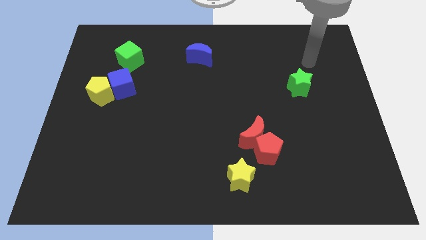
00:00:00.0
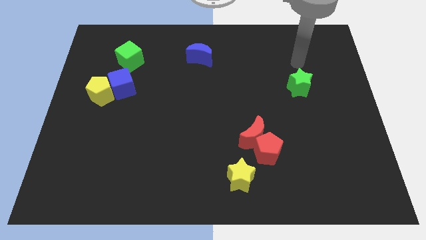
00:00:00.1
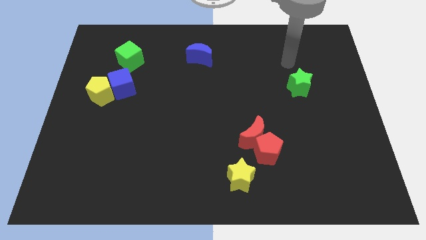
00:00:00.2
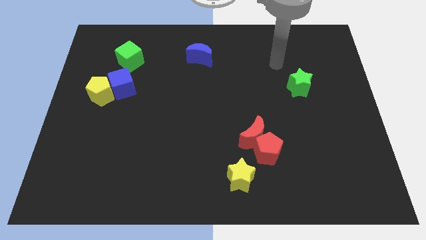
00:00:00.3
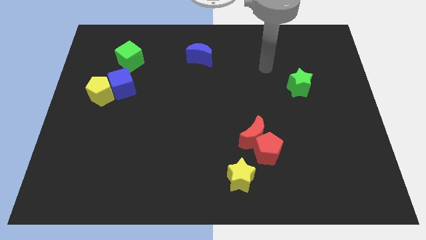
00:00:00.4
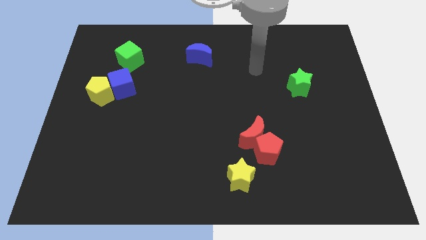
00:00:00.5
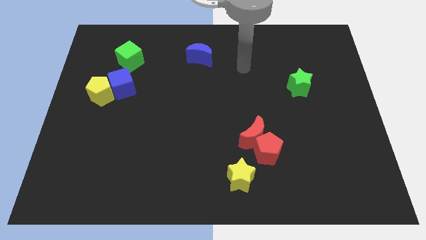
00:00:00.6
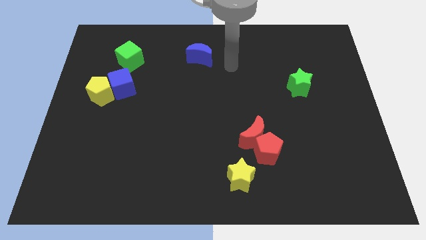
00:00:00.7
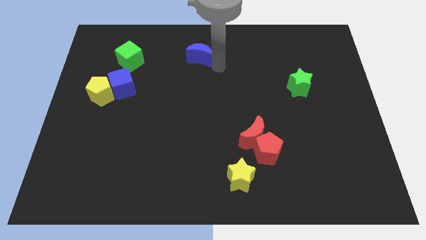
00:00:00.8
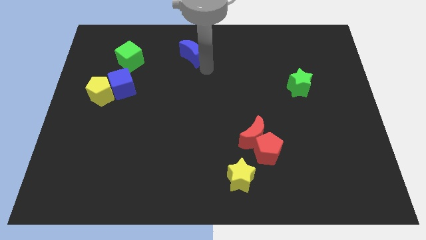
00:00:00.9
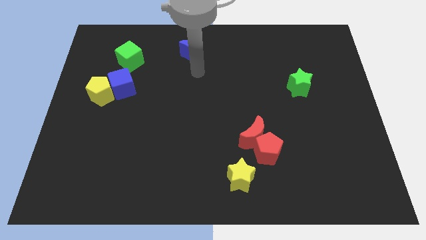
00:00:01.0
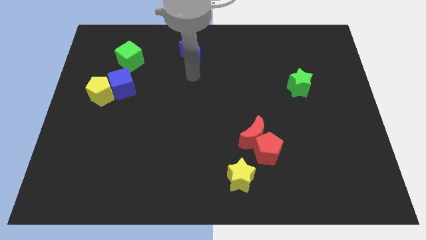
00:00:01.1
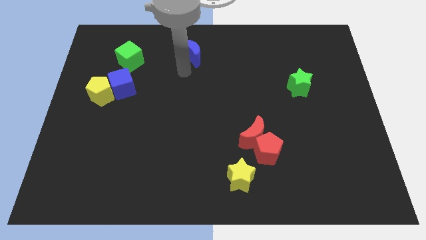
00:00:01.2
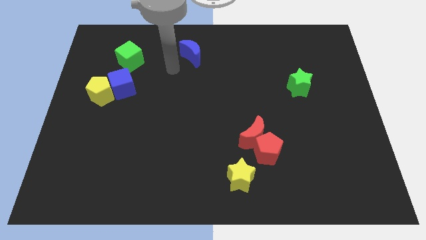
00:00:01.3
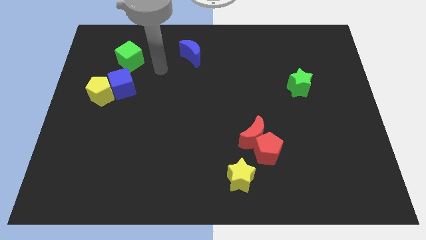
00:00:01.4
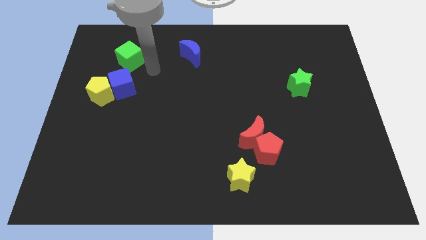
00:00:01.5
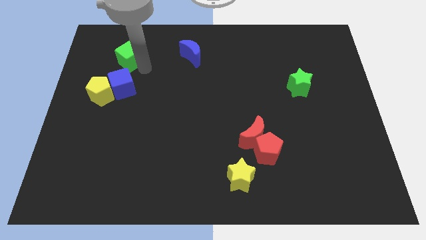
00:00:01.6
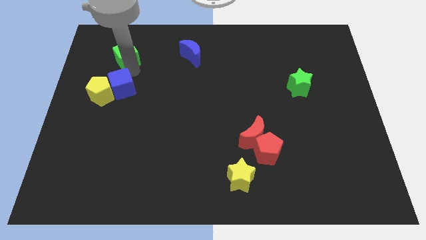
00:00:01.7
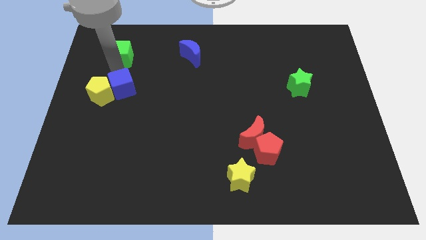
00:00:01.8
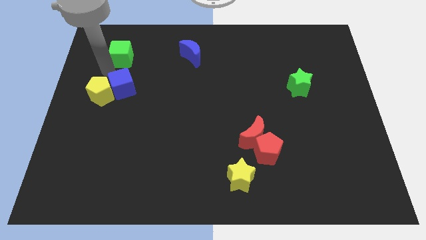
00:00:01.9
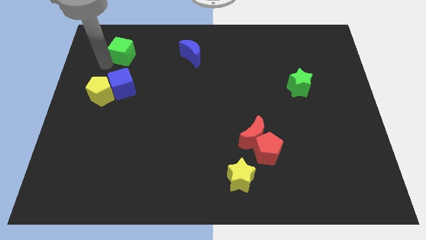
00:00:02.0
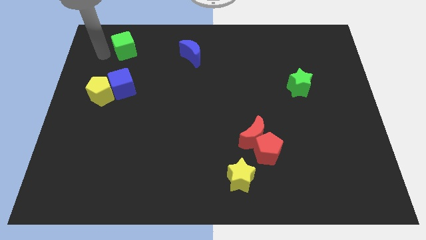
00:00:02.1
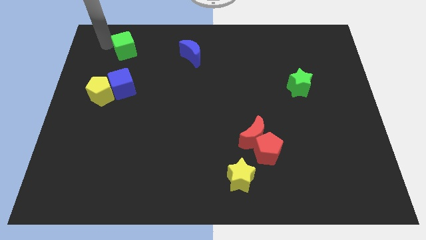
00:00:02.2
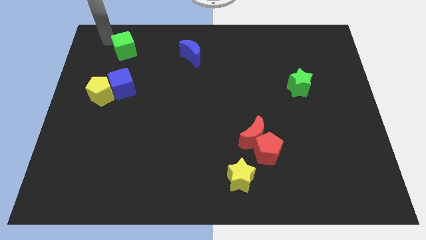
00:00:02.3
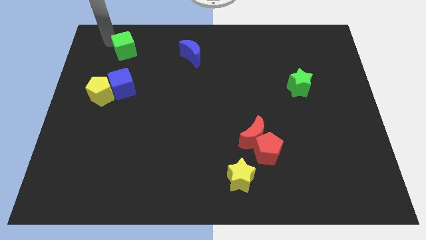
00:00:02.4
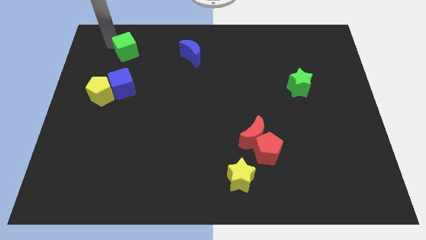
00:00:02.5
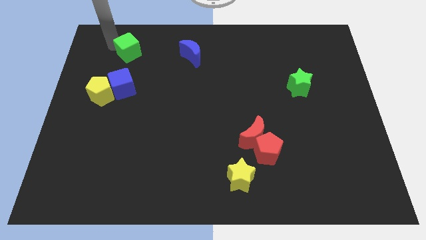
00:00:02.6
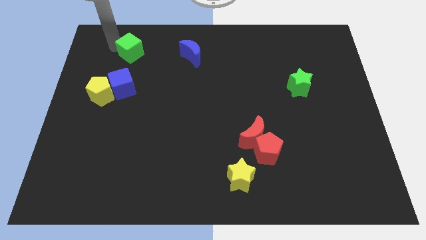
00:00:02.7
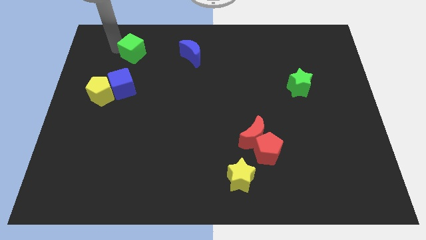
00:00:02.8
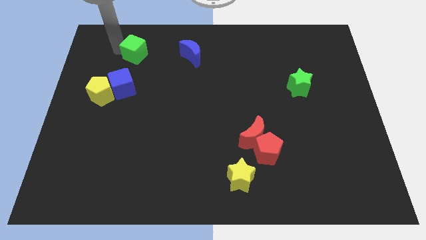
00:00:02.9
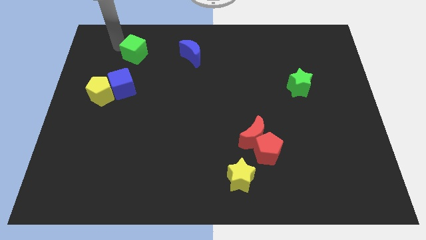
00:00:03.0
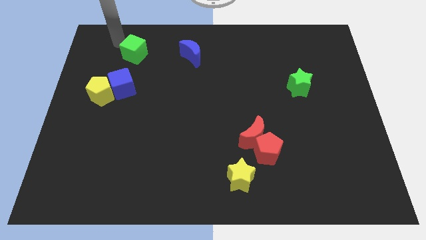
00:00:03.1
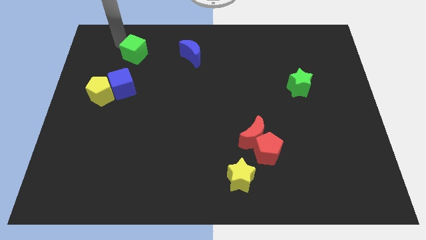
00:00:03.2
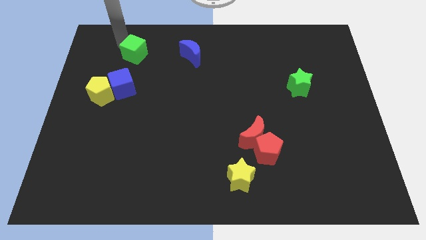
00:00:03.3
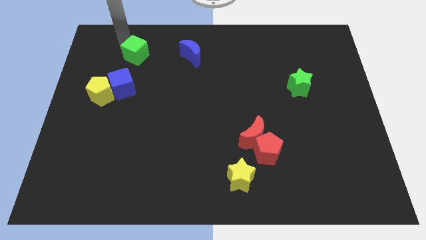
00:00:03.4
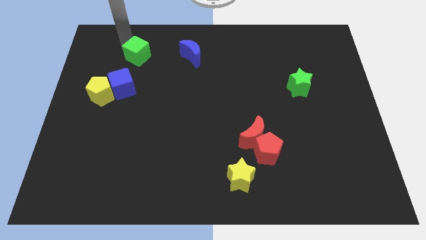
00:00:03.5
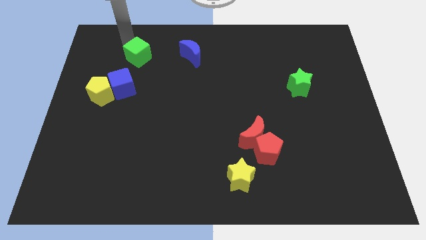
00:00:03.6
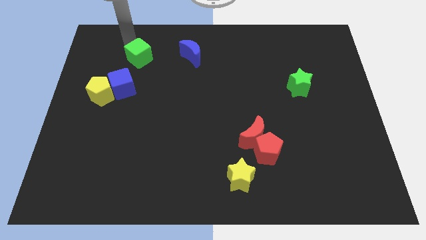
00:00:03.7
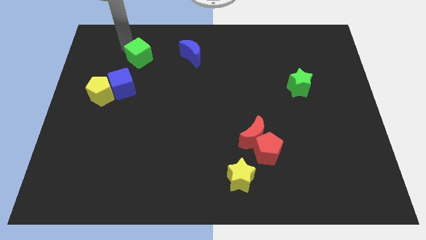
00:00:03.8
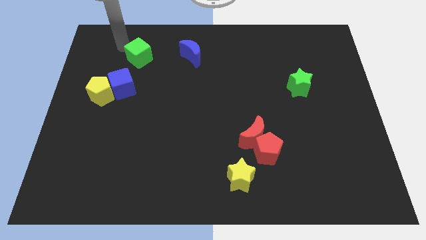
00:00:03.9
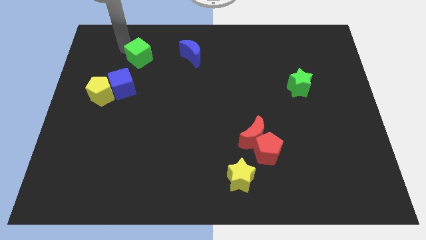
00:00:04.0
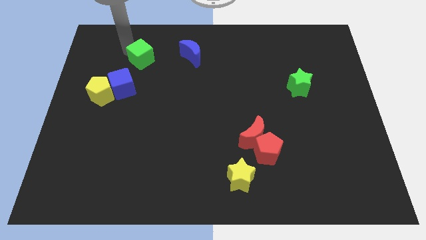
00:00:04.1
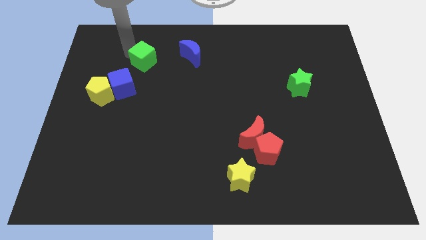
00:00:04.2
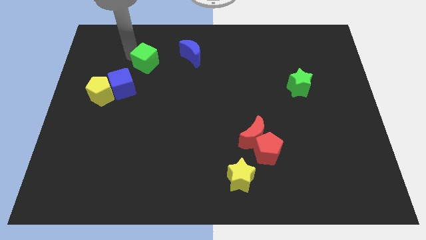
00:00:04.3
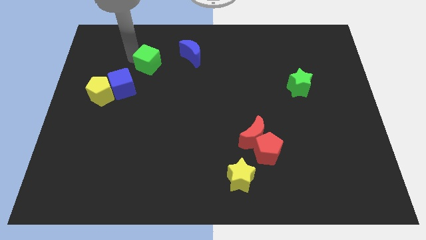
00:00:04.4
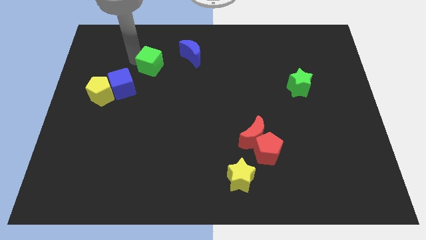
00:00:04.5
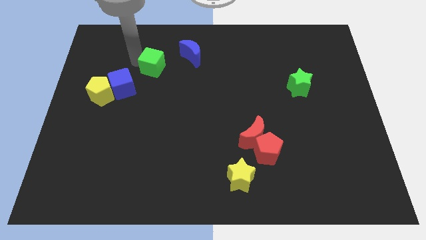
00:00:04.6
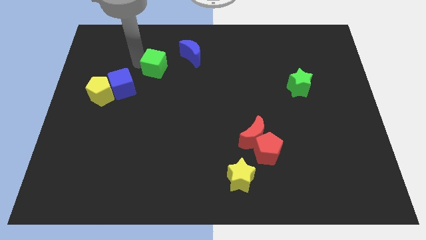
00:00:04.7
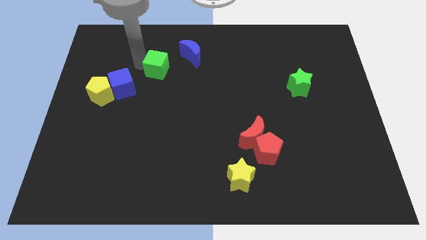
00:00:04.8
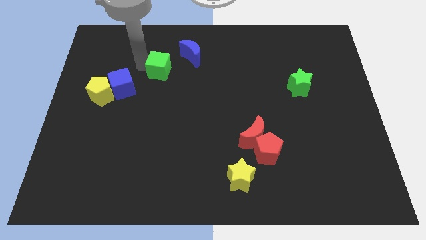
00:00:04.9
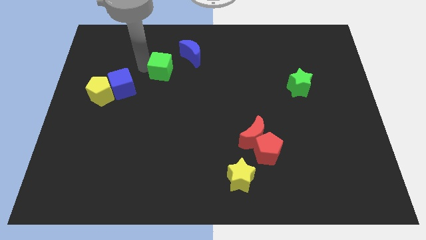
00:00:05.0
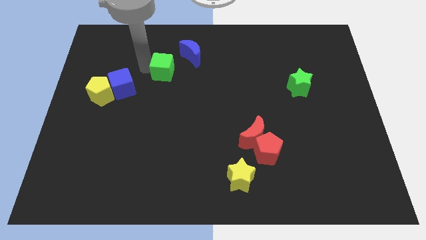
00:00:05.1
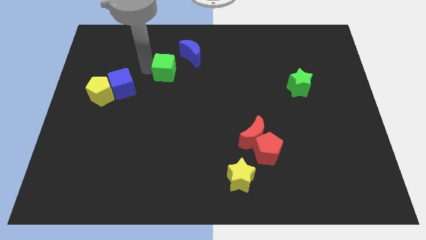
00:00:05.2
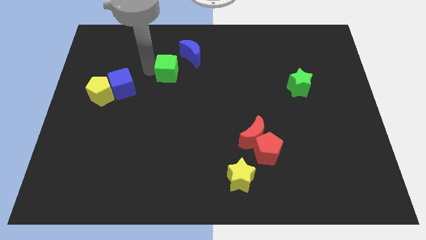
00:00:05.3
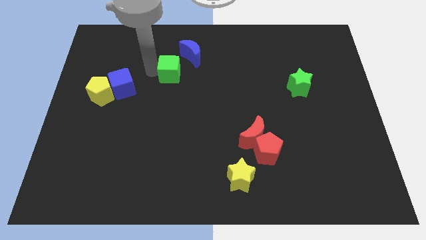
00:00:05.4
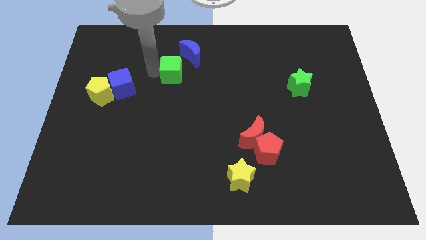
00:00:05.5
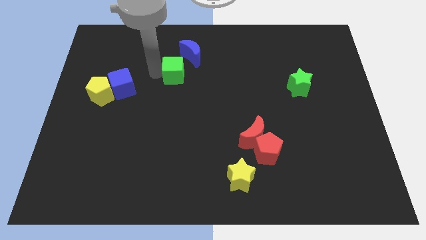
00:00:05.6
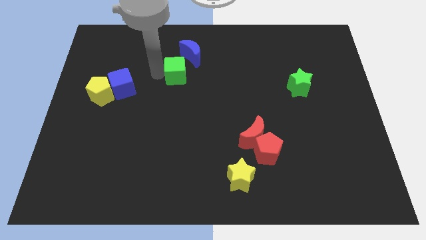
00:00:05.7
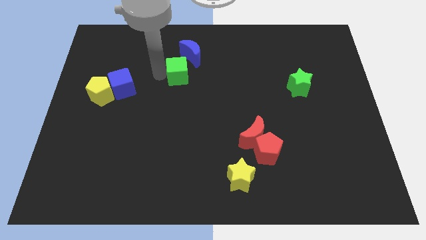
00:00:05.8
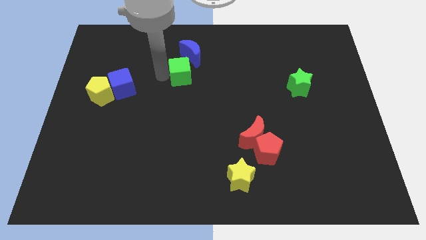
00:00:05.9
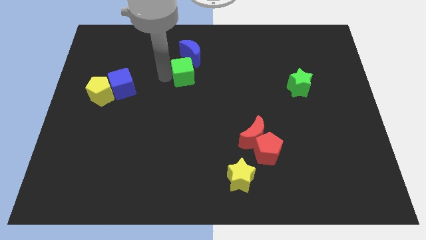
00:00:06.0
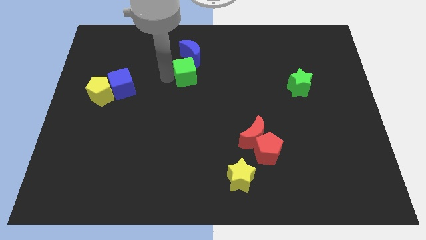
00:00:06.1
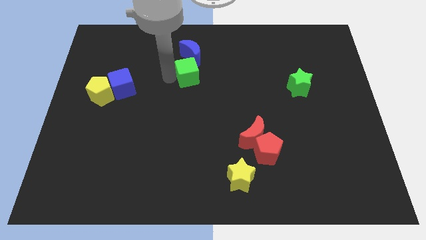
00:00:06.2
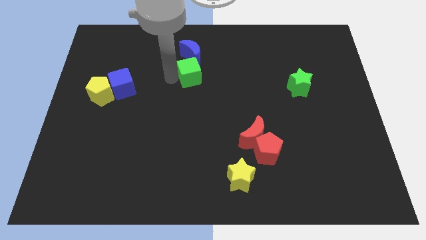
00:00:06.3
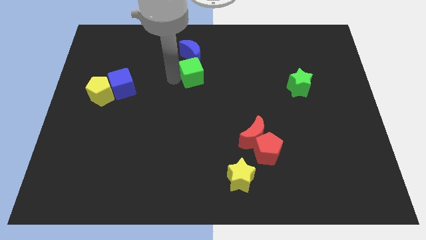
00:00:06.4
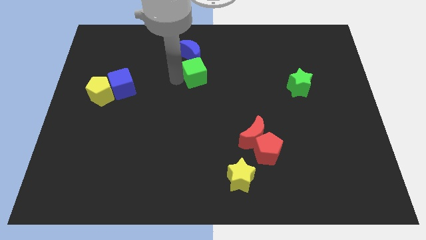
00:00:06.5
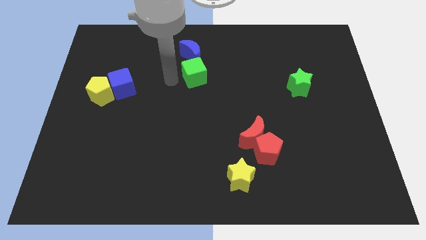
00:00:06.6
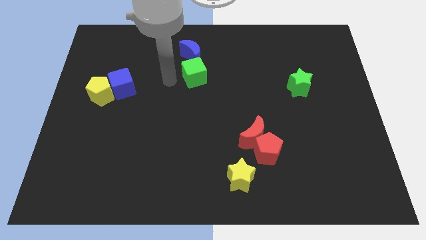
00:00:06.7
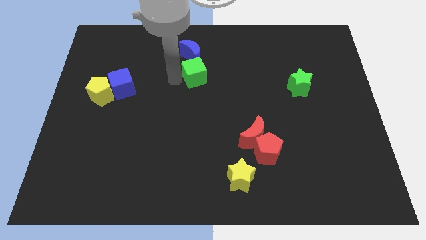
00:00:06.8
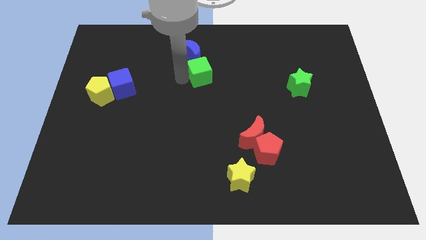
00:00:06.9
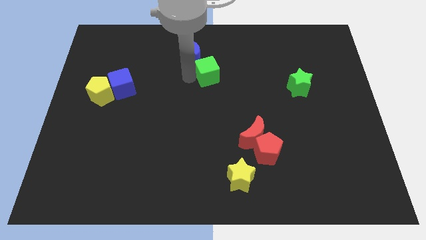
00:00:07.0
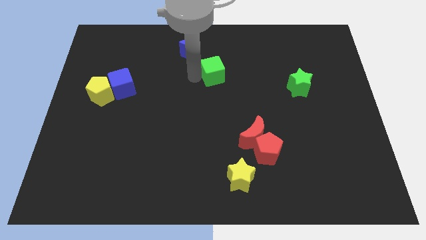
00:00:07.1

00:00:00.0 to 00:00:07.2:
push the green cube to the right

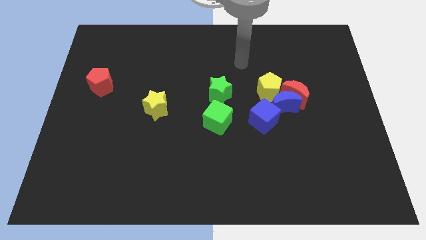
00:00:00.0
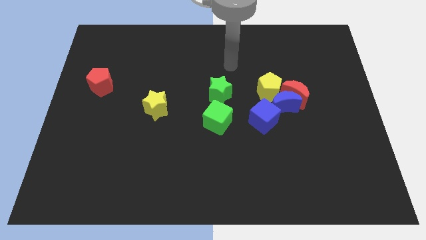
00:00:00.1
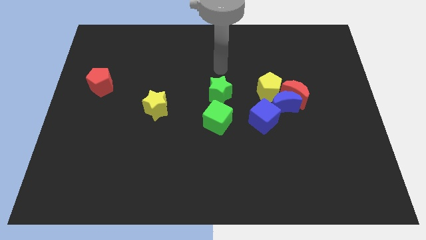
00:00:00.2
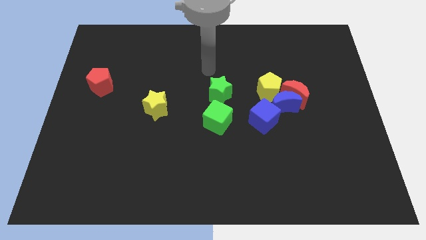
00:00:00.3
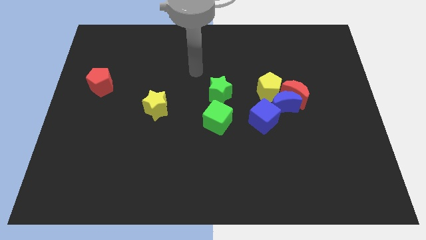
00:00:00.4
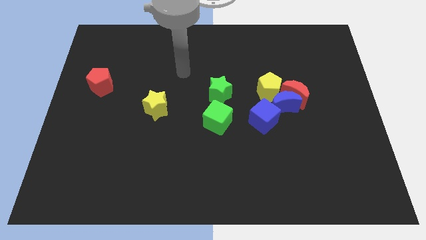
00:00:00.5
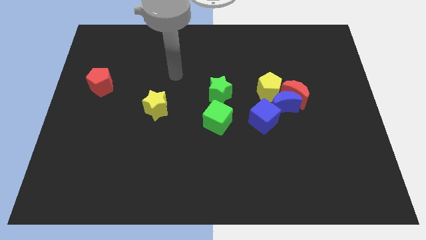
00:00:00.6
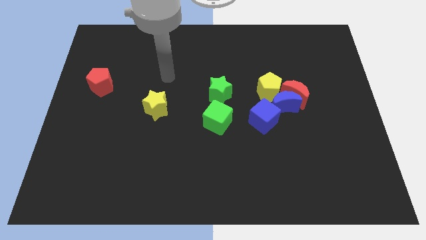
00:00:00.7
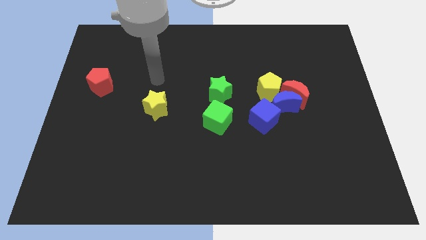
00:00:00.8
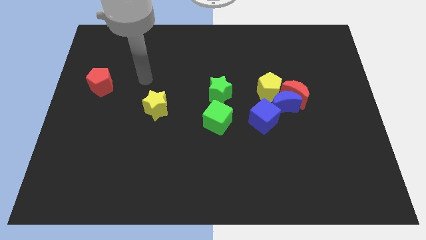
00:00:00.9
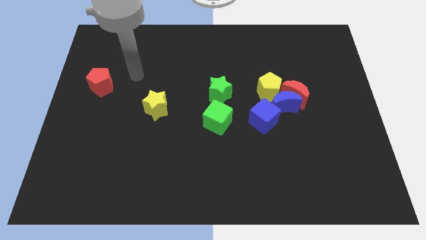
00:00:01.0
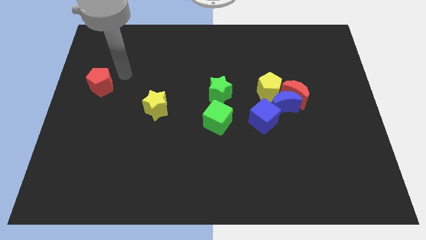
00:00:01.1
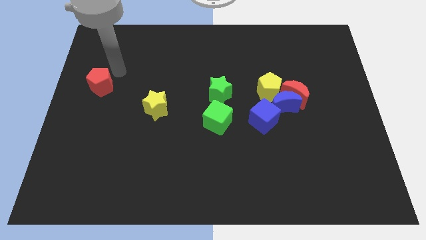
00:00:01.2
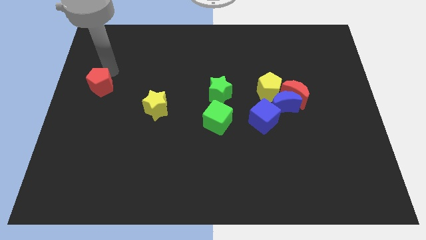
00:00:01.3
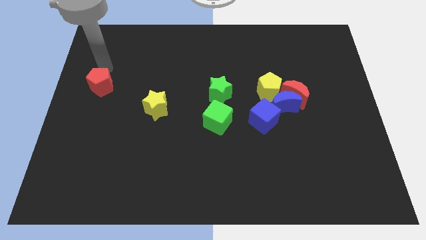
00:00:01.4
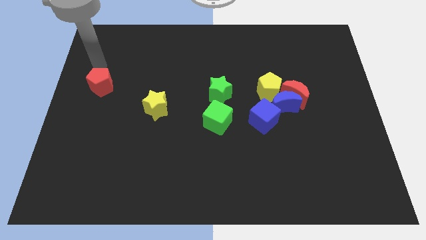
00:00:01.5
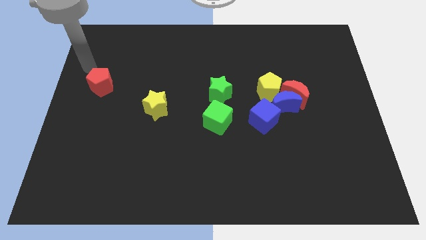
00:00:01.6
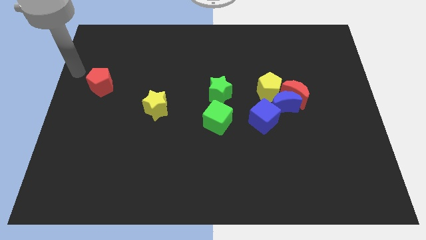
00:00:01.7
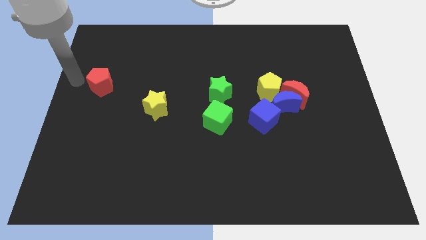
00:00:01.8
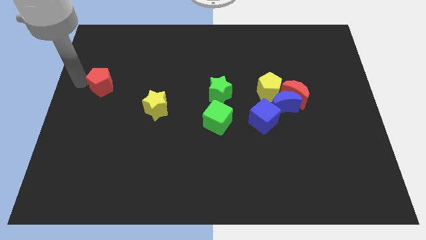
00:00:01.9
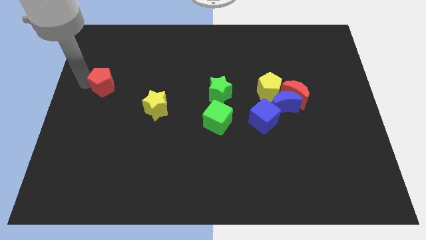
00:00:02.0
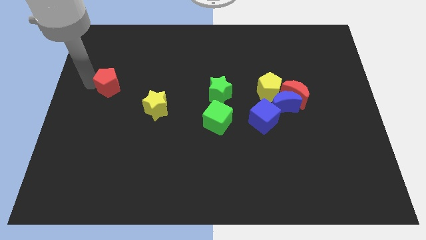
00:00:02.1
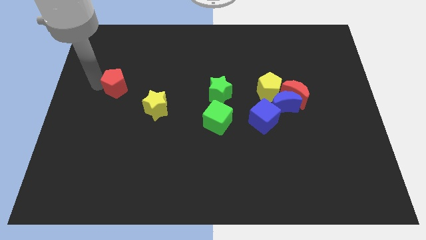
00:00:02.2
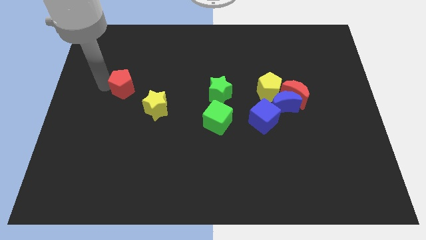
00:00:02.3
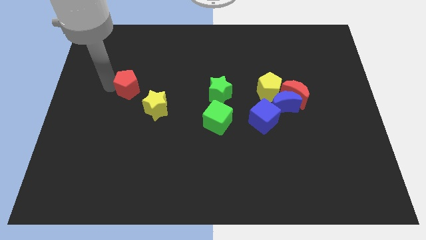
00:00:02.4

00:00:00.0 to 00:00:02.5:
slightly move the red pentagon to the right
